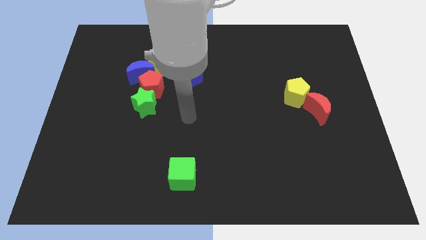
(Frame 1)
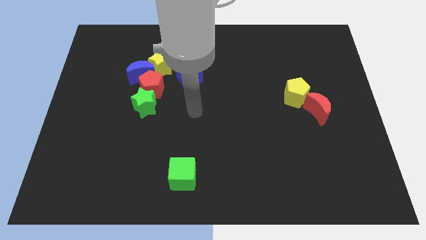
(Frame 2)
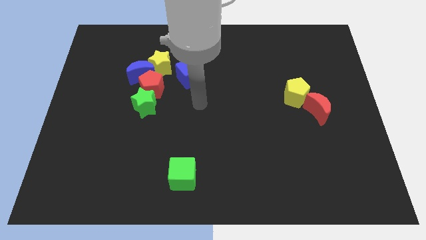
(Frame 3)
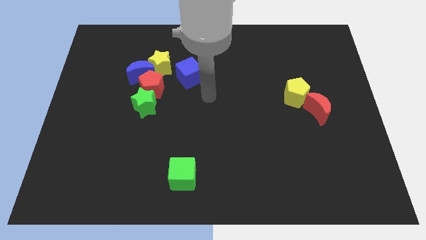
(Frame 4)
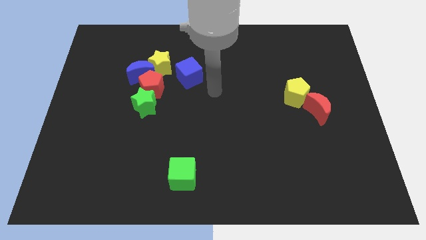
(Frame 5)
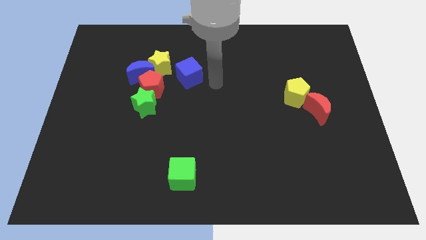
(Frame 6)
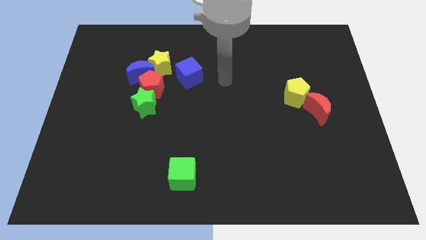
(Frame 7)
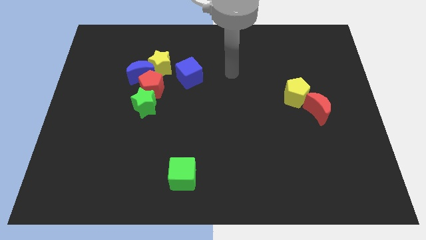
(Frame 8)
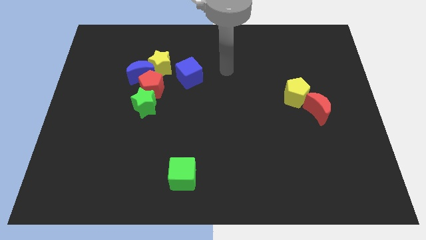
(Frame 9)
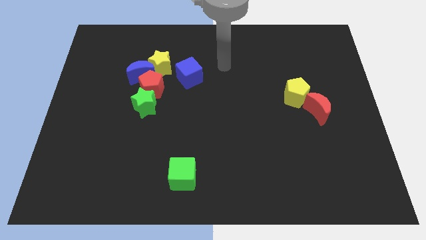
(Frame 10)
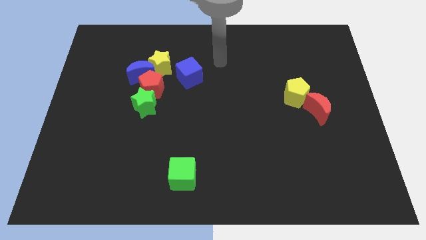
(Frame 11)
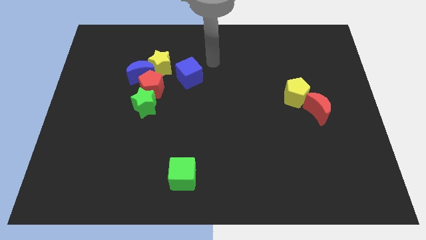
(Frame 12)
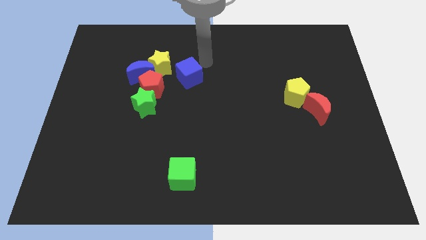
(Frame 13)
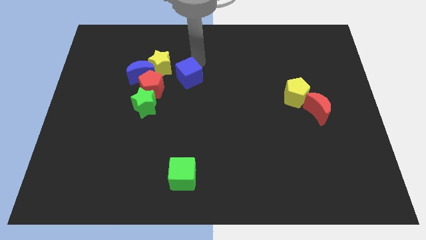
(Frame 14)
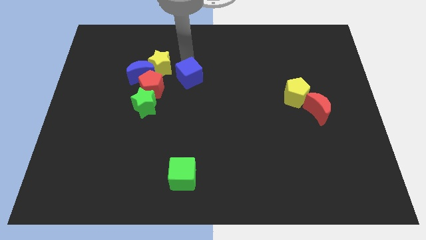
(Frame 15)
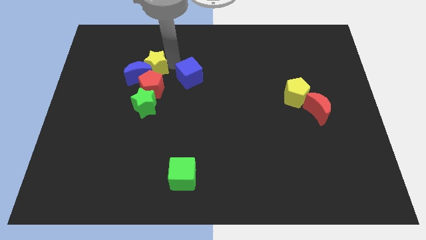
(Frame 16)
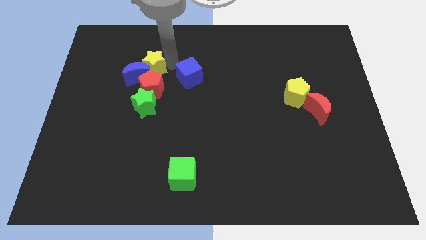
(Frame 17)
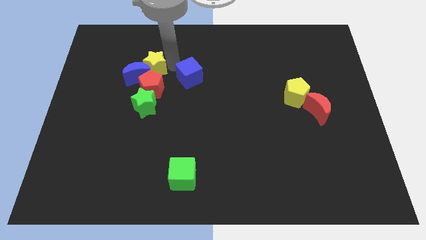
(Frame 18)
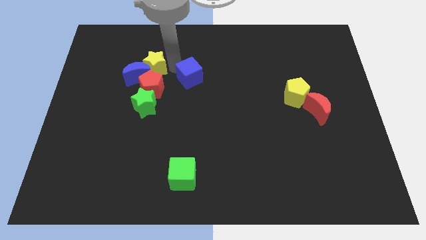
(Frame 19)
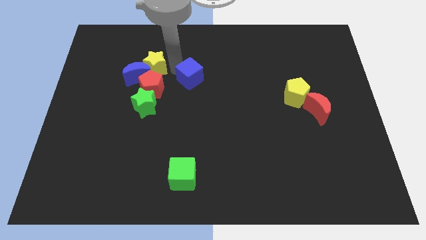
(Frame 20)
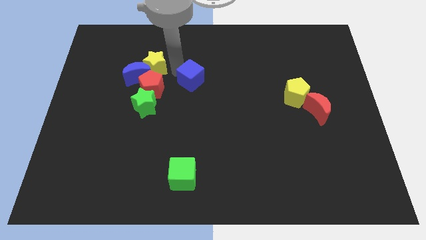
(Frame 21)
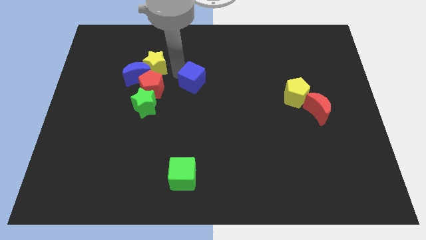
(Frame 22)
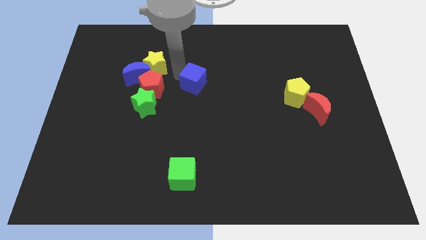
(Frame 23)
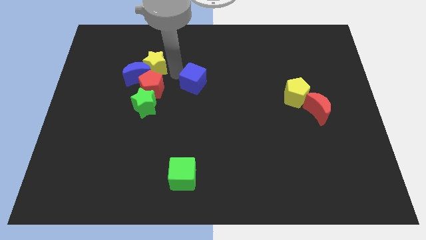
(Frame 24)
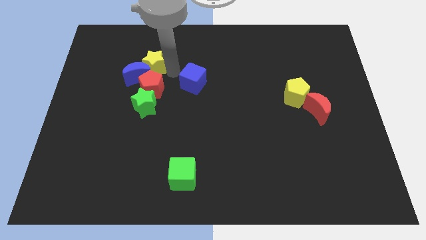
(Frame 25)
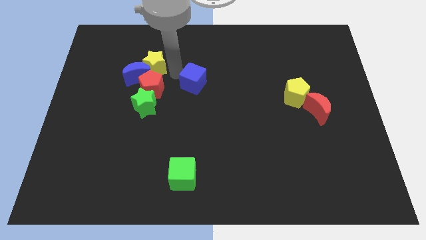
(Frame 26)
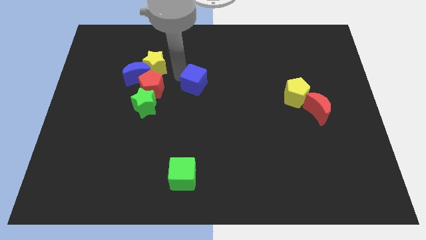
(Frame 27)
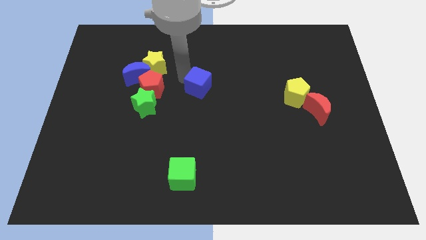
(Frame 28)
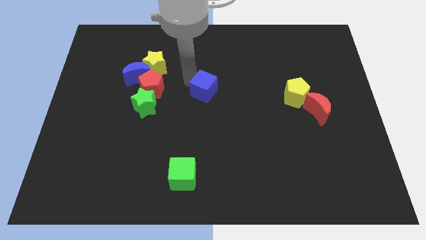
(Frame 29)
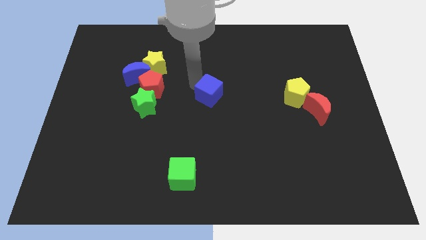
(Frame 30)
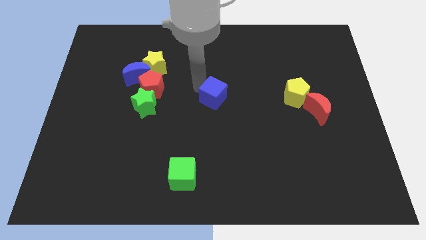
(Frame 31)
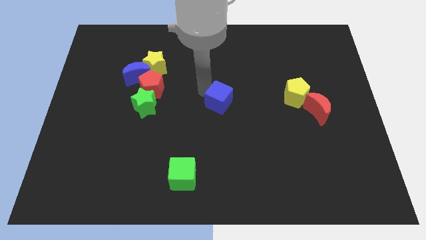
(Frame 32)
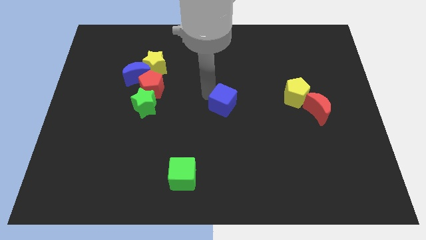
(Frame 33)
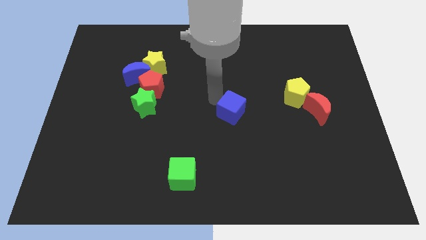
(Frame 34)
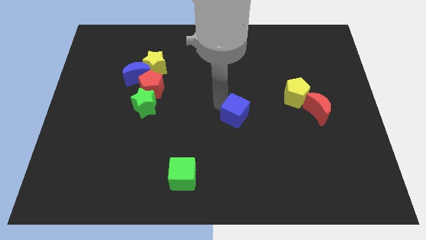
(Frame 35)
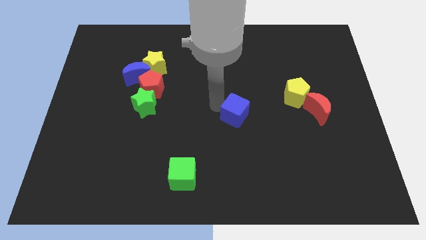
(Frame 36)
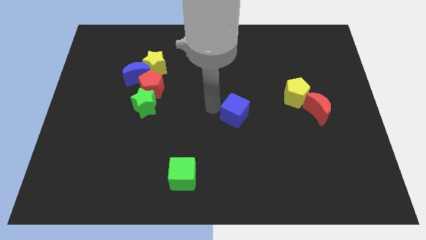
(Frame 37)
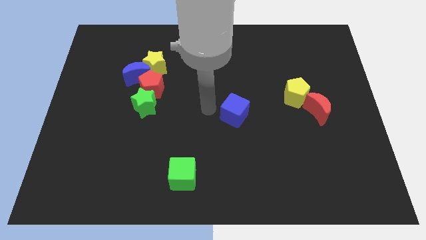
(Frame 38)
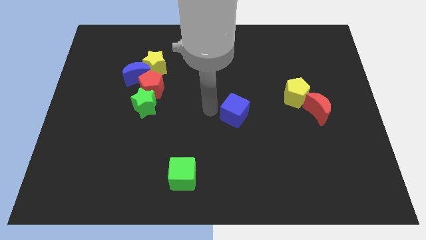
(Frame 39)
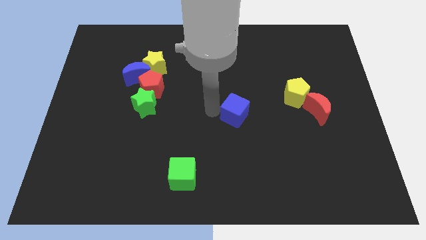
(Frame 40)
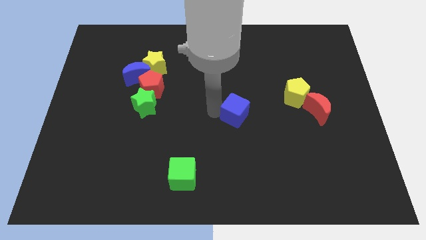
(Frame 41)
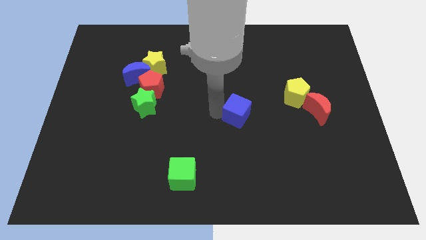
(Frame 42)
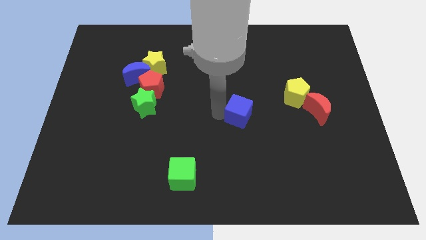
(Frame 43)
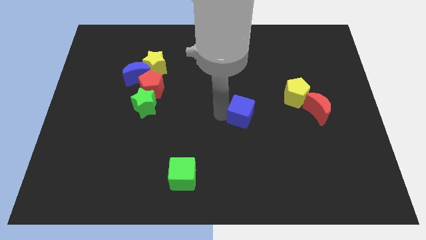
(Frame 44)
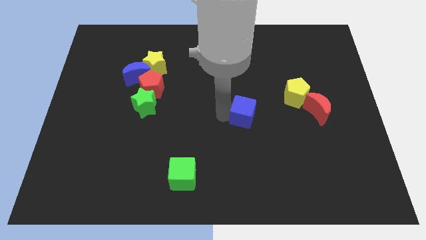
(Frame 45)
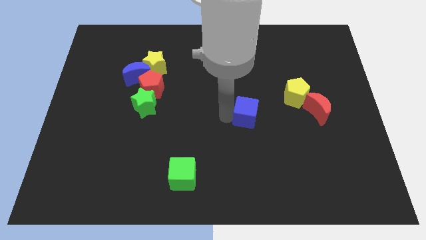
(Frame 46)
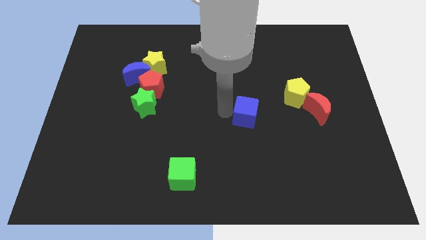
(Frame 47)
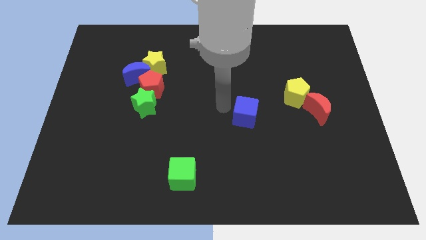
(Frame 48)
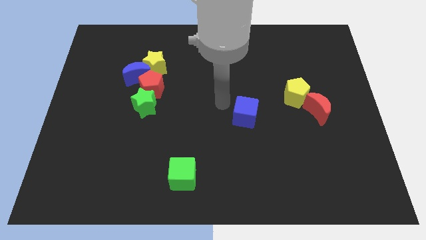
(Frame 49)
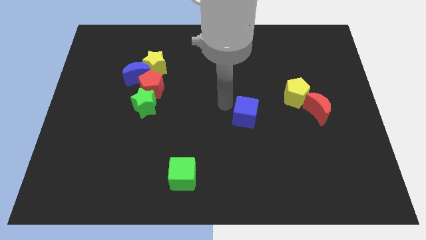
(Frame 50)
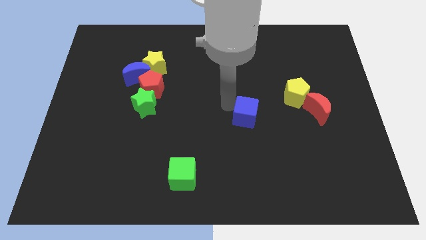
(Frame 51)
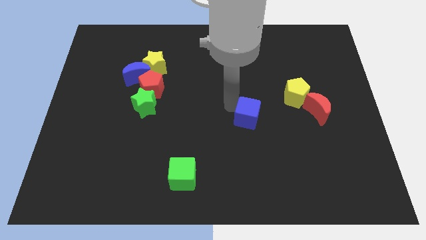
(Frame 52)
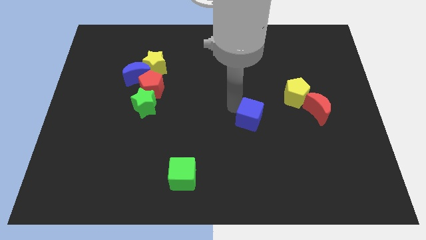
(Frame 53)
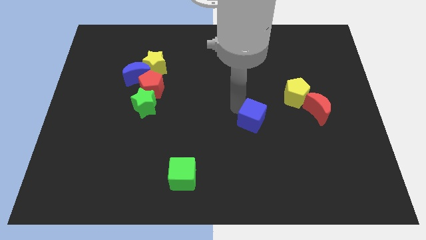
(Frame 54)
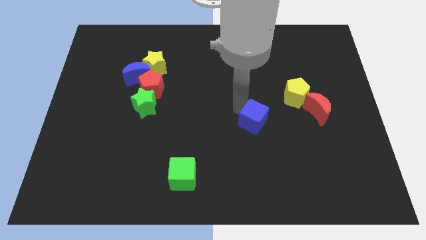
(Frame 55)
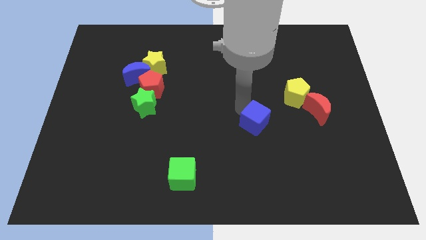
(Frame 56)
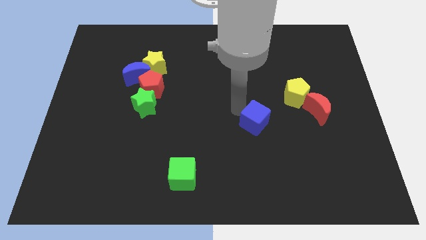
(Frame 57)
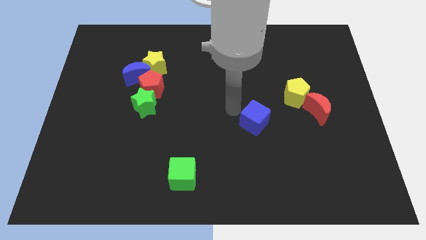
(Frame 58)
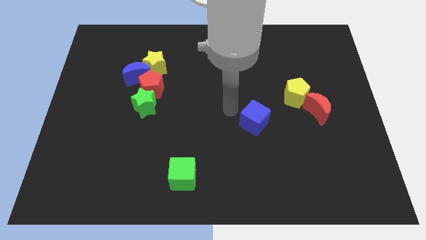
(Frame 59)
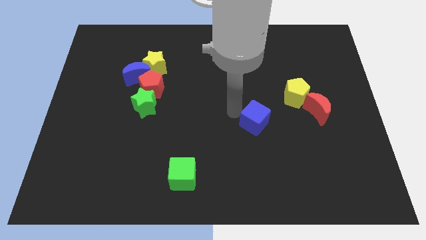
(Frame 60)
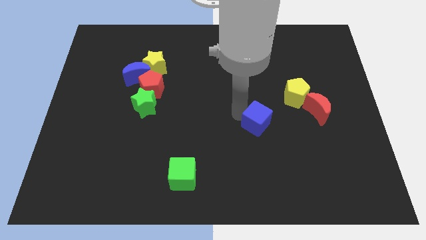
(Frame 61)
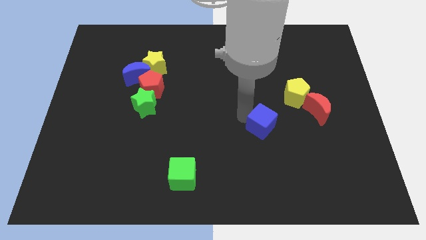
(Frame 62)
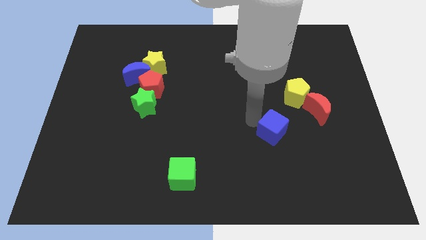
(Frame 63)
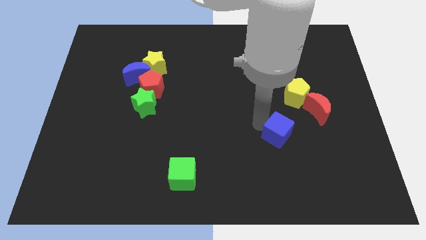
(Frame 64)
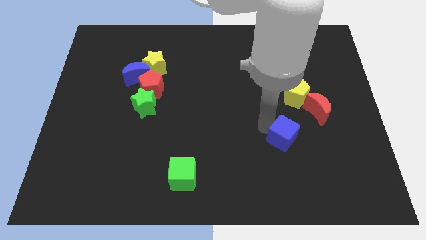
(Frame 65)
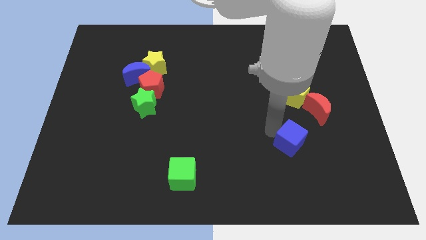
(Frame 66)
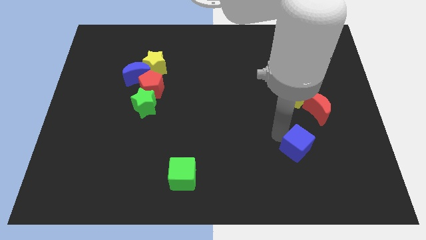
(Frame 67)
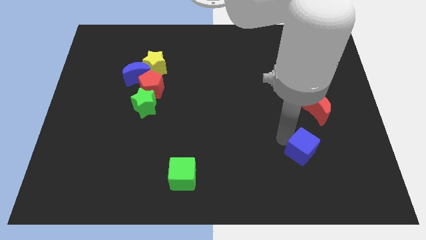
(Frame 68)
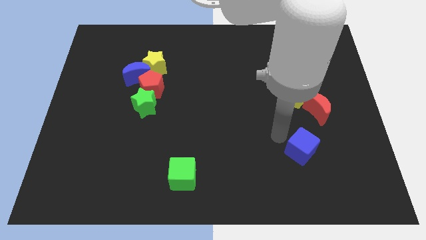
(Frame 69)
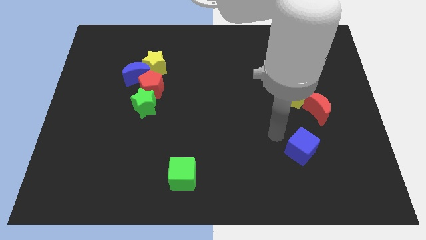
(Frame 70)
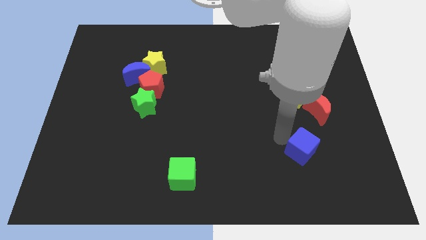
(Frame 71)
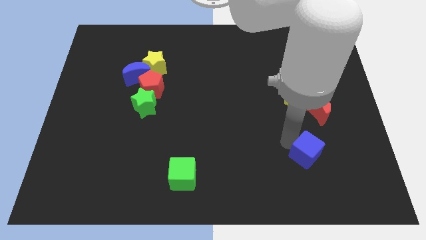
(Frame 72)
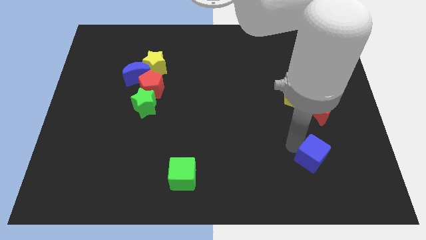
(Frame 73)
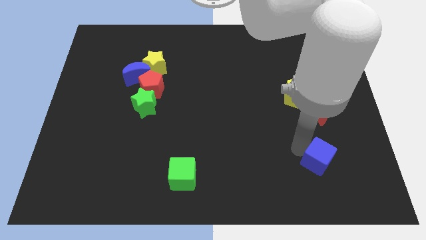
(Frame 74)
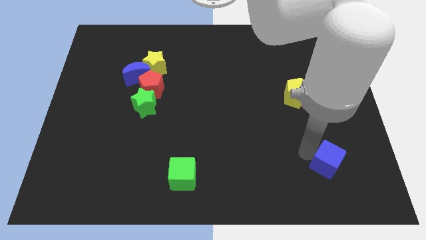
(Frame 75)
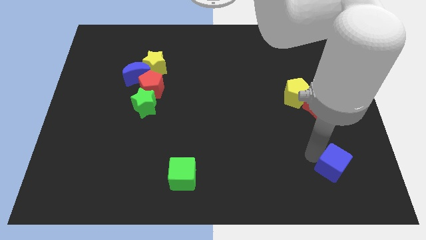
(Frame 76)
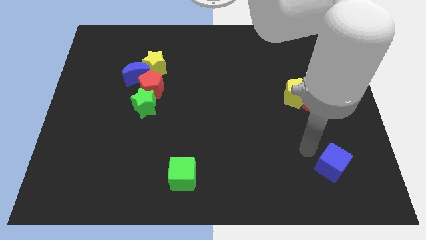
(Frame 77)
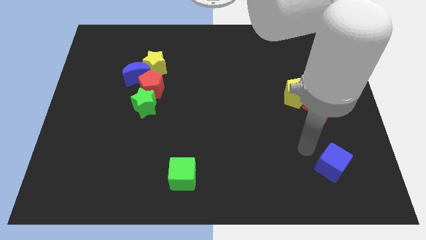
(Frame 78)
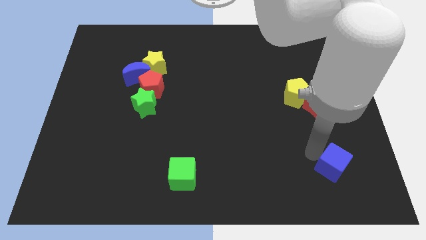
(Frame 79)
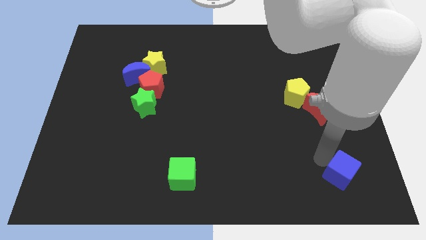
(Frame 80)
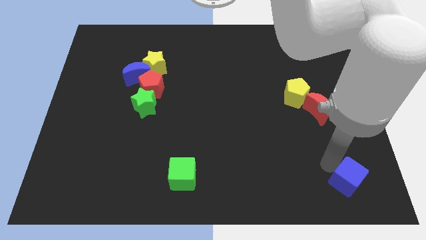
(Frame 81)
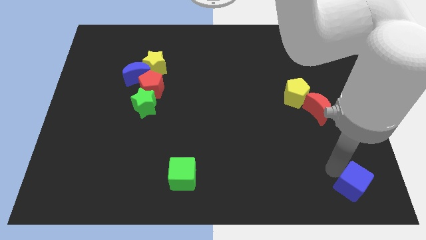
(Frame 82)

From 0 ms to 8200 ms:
push the blue cube to the bottom right of the board
